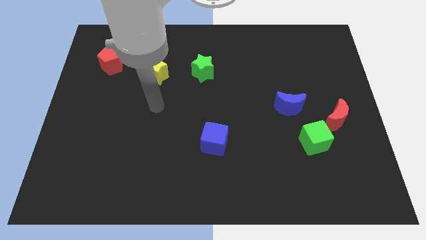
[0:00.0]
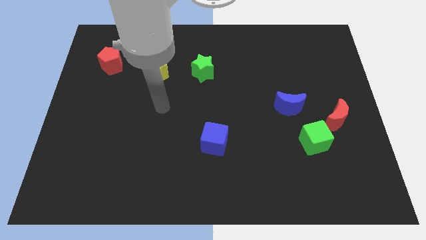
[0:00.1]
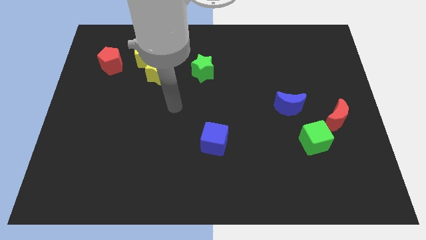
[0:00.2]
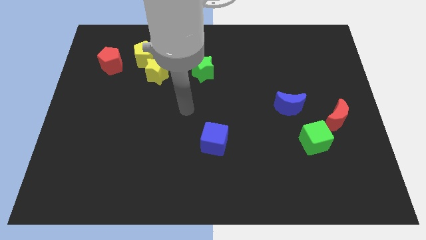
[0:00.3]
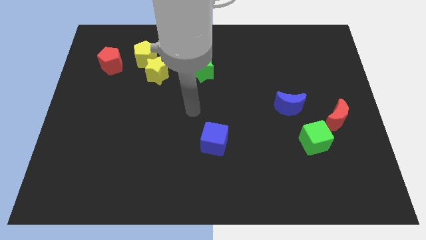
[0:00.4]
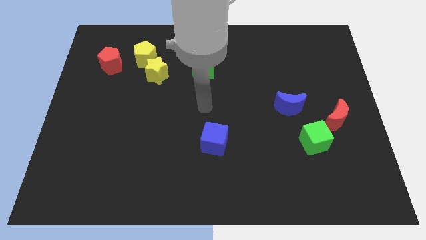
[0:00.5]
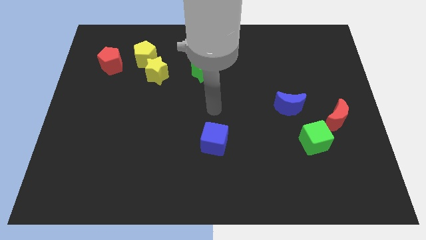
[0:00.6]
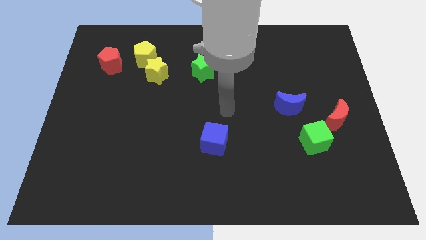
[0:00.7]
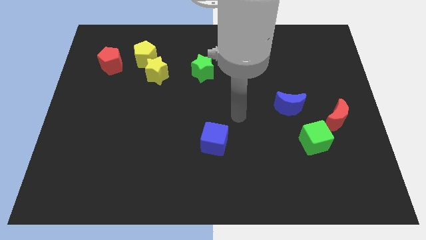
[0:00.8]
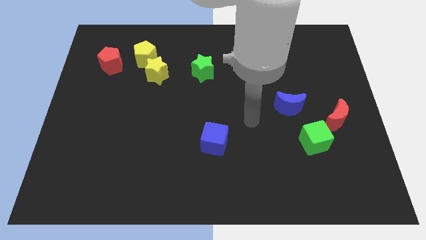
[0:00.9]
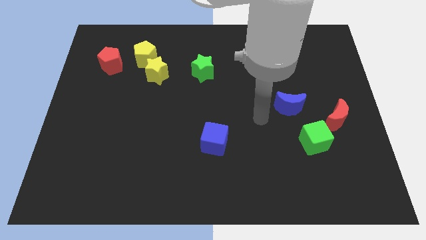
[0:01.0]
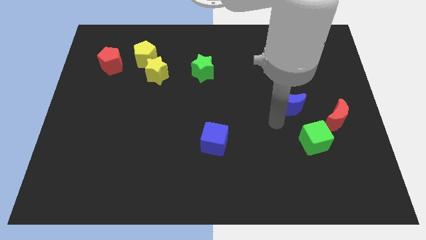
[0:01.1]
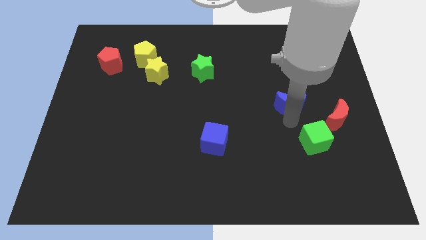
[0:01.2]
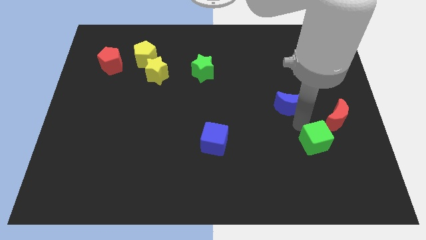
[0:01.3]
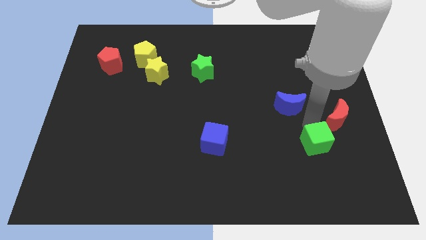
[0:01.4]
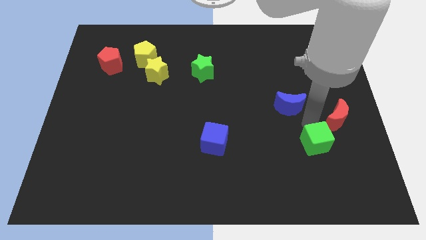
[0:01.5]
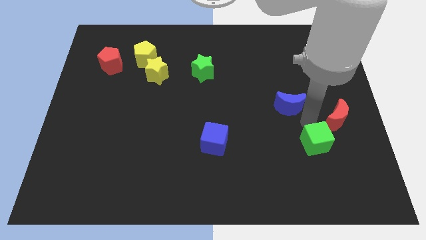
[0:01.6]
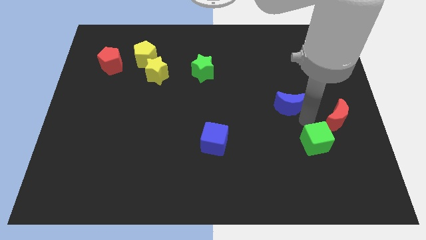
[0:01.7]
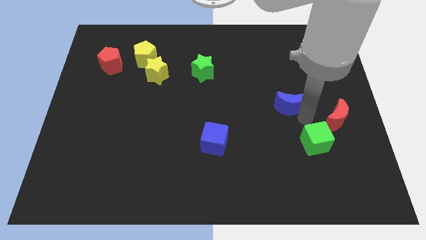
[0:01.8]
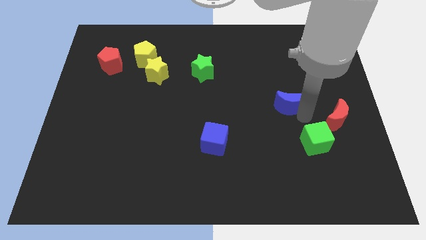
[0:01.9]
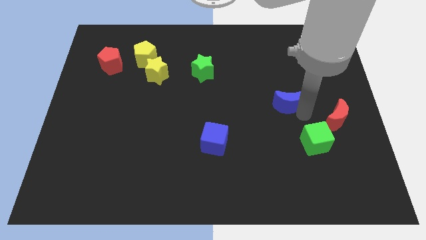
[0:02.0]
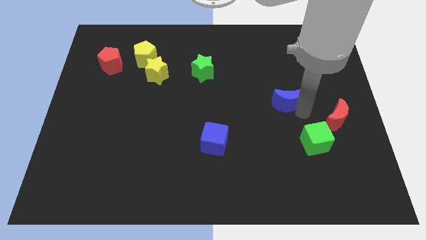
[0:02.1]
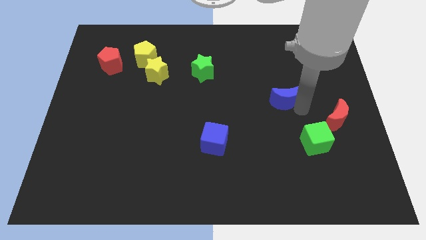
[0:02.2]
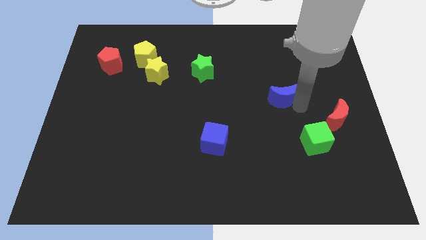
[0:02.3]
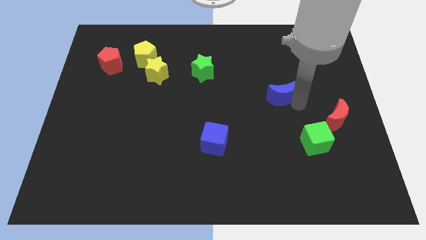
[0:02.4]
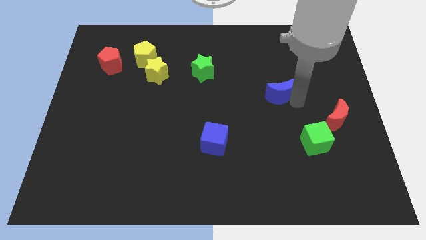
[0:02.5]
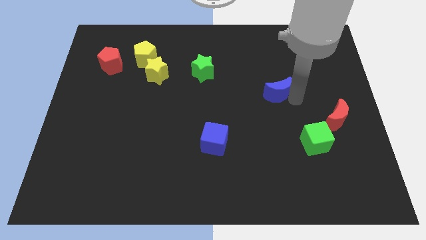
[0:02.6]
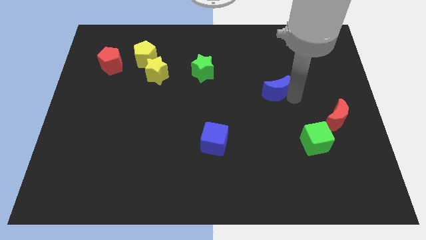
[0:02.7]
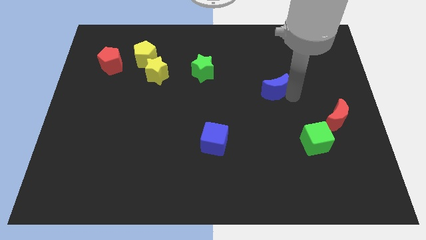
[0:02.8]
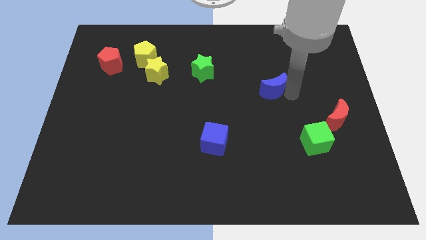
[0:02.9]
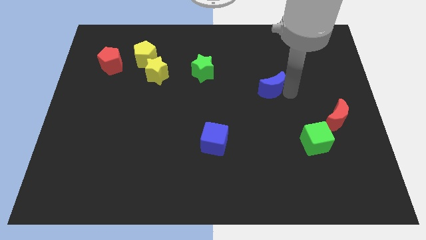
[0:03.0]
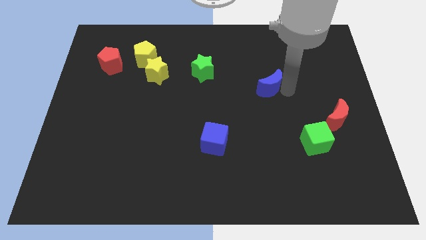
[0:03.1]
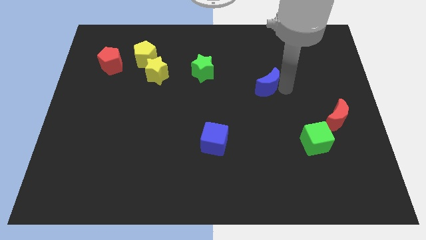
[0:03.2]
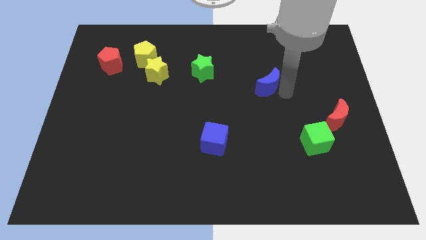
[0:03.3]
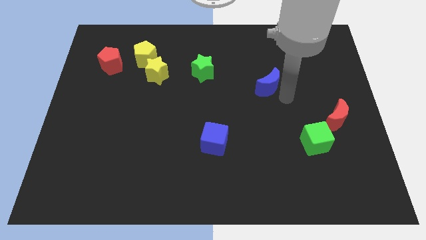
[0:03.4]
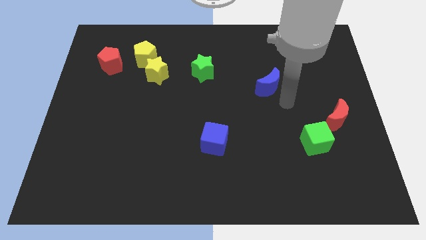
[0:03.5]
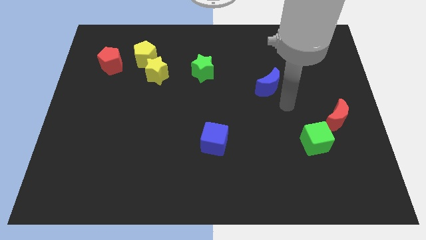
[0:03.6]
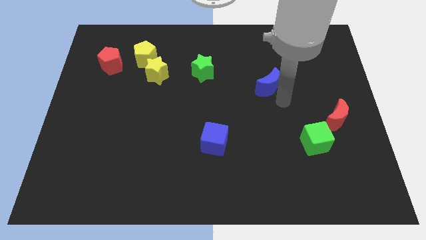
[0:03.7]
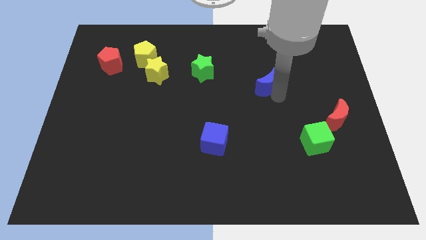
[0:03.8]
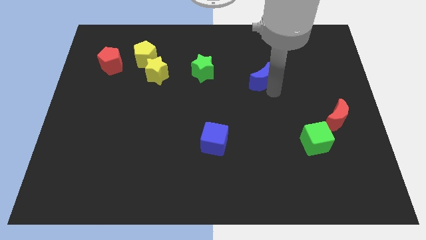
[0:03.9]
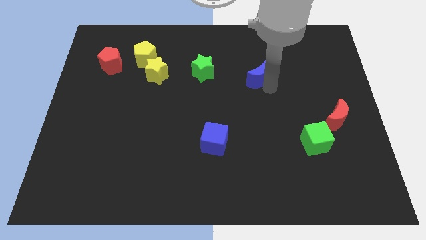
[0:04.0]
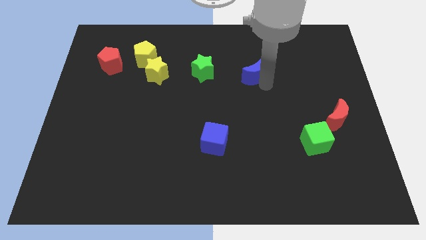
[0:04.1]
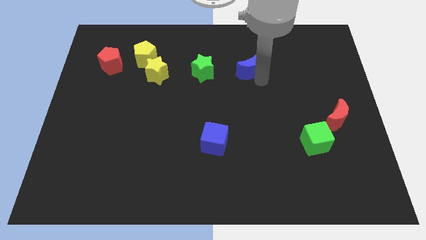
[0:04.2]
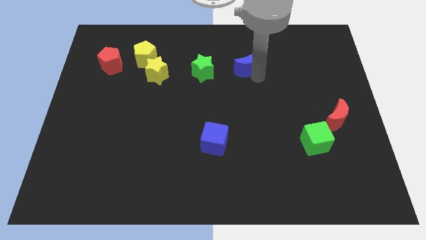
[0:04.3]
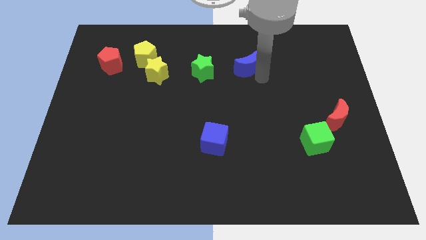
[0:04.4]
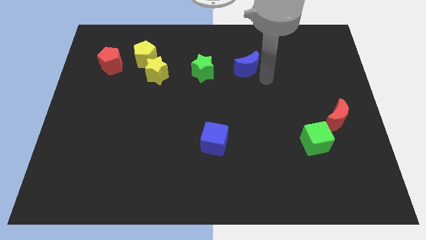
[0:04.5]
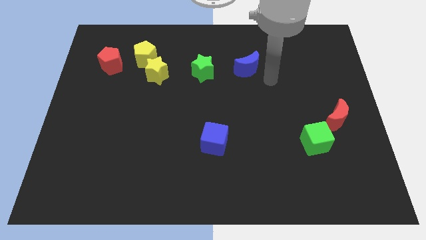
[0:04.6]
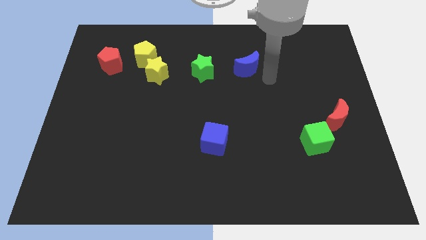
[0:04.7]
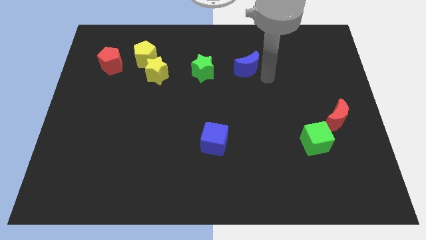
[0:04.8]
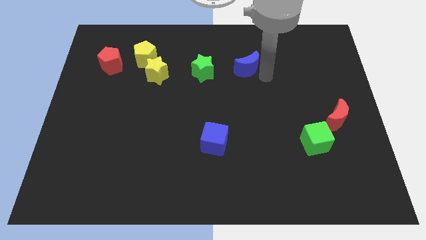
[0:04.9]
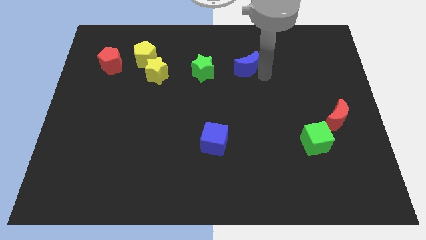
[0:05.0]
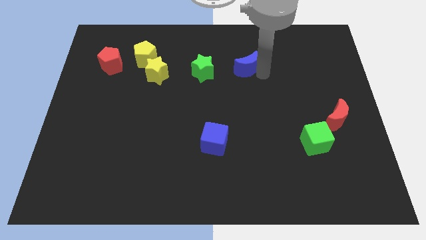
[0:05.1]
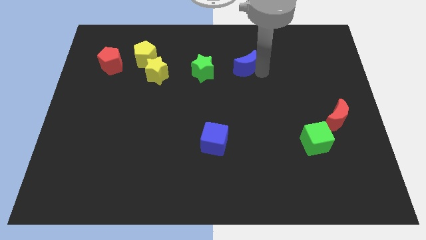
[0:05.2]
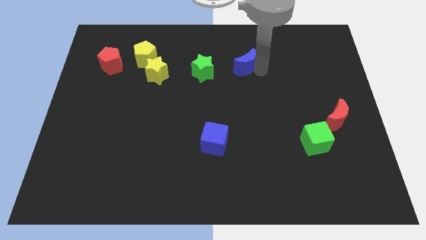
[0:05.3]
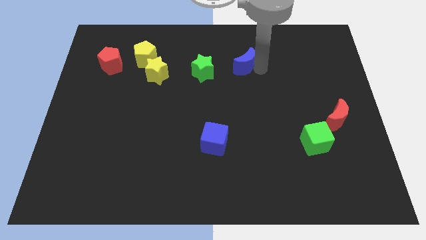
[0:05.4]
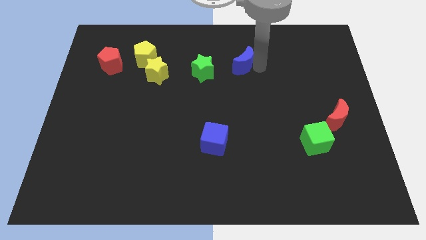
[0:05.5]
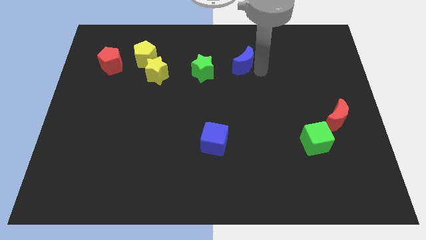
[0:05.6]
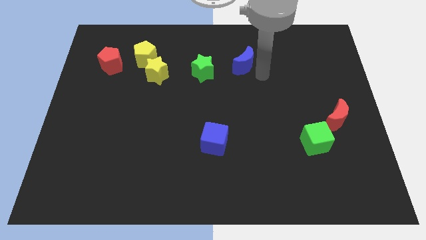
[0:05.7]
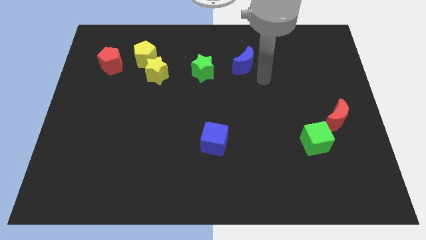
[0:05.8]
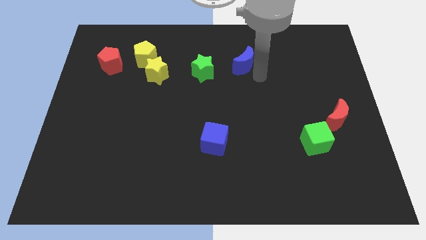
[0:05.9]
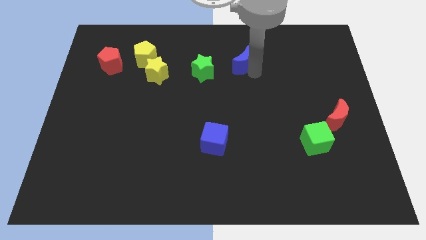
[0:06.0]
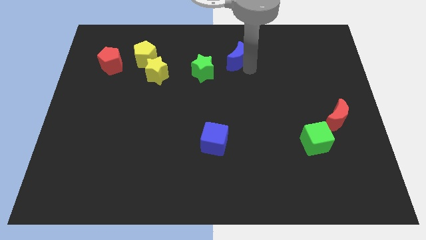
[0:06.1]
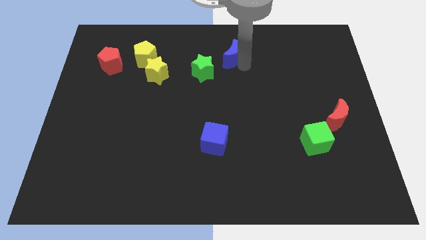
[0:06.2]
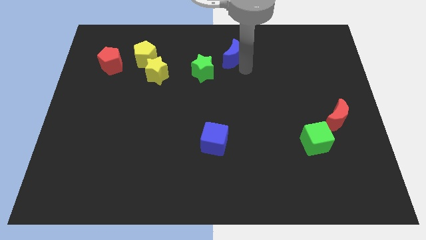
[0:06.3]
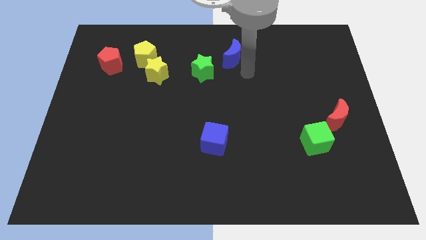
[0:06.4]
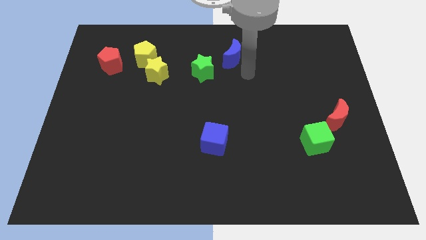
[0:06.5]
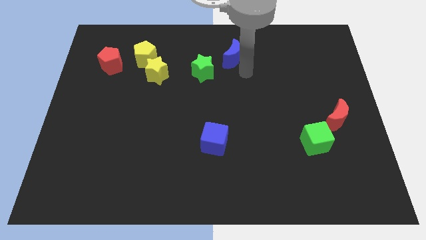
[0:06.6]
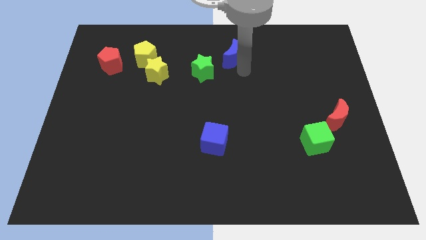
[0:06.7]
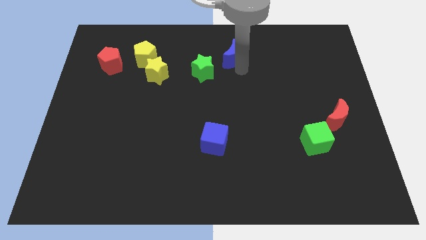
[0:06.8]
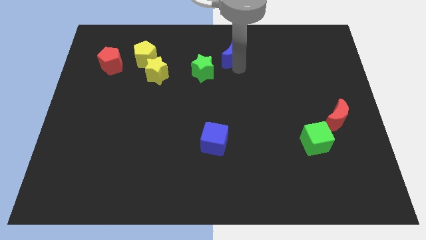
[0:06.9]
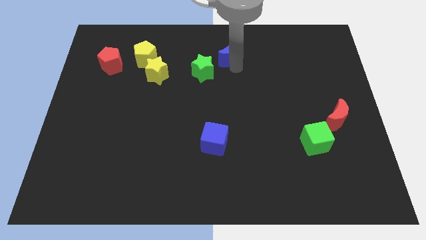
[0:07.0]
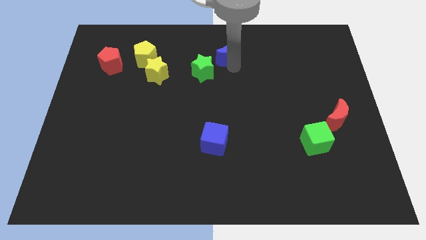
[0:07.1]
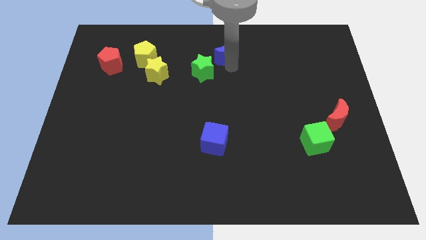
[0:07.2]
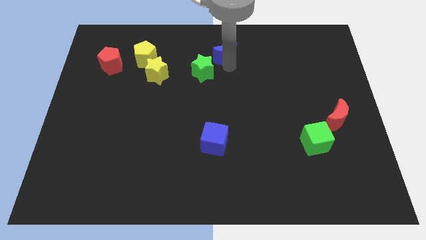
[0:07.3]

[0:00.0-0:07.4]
slide the blue moon to the top side
